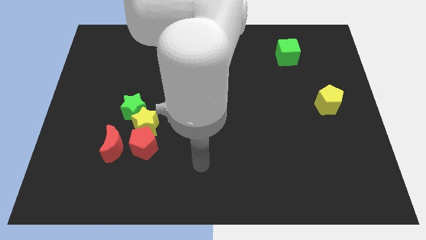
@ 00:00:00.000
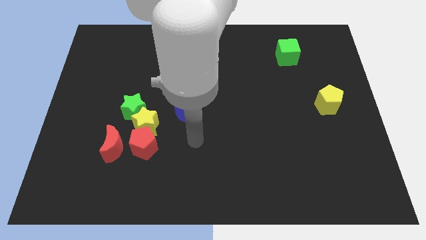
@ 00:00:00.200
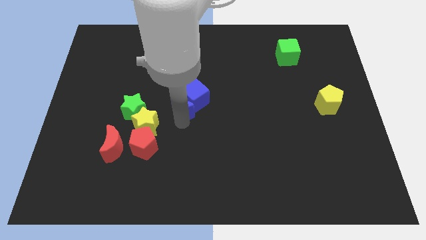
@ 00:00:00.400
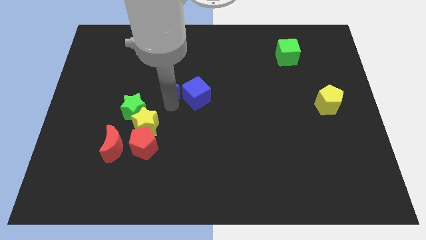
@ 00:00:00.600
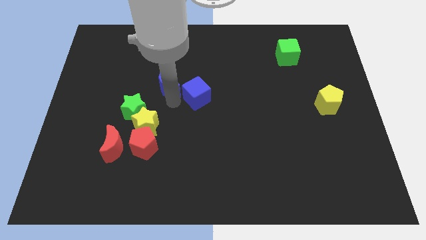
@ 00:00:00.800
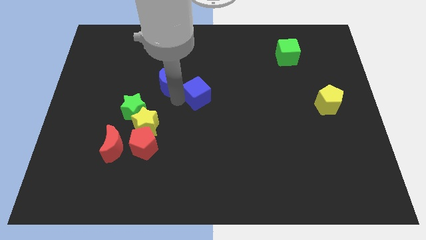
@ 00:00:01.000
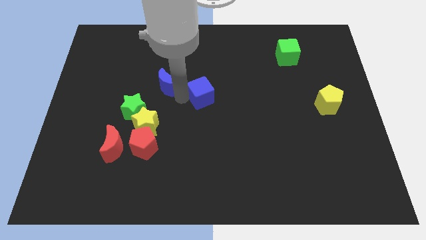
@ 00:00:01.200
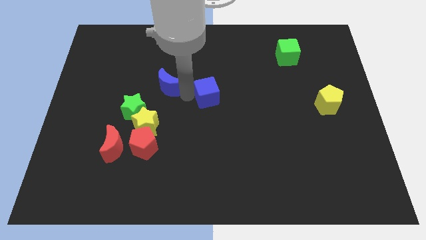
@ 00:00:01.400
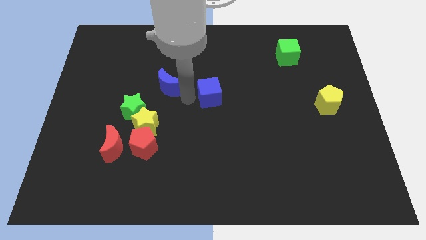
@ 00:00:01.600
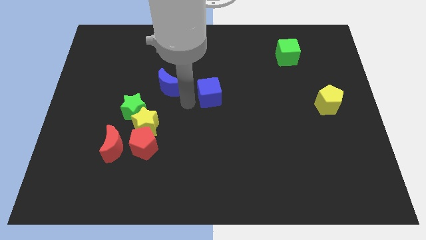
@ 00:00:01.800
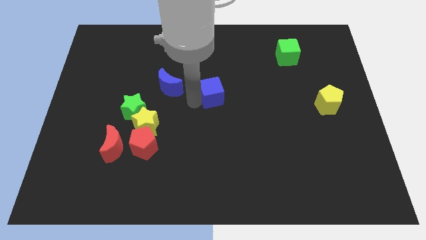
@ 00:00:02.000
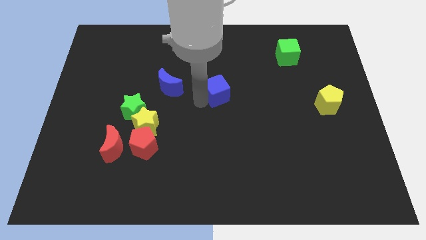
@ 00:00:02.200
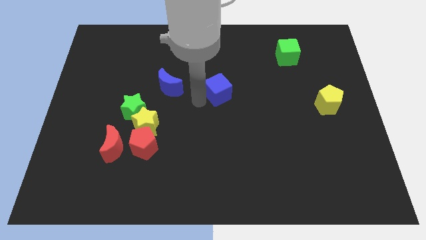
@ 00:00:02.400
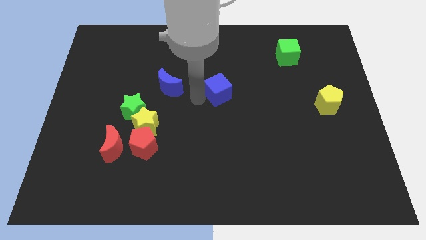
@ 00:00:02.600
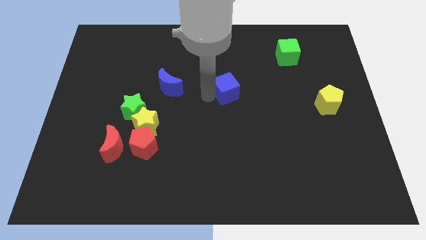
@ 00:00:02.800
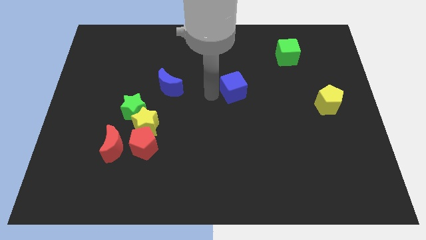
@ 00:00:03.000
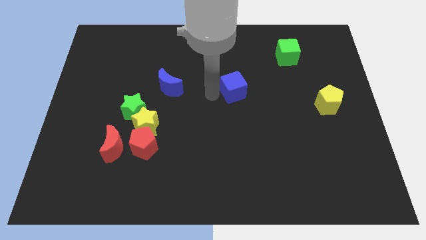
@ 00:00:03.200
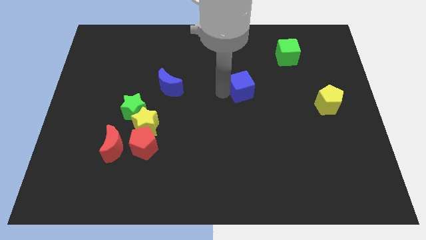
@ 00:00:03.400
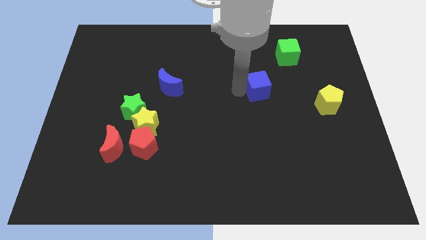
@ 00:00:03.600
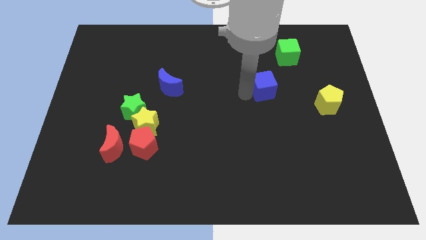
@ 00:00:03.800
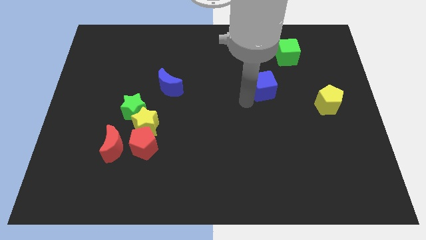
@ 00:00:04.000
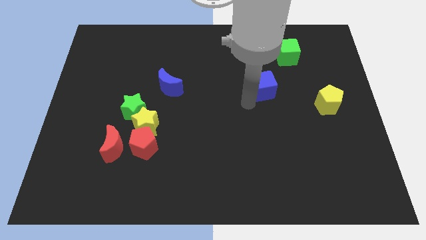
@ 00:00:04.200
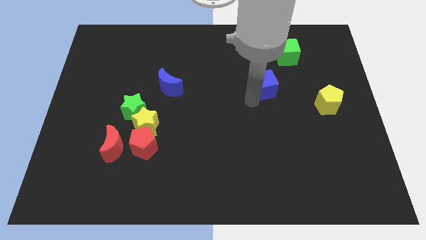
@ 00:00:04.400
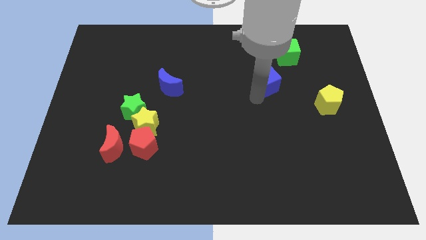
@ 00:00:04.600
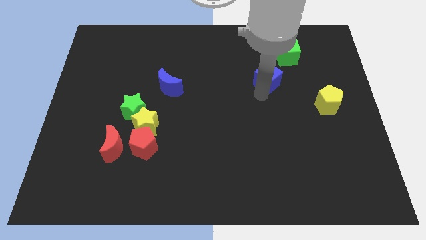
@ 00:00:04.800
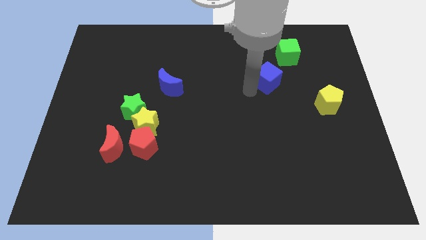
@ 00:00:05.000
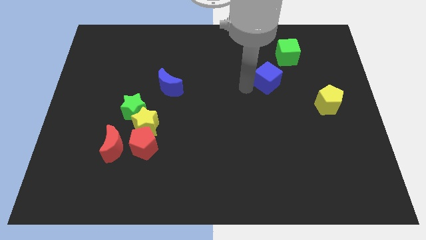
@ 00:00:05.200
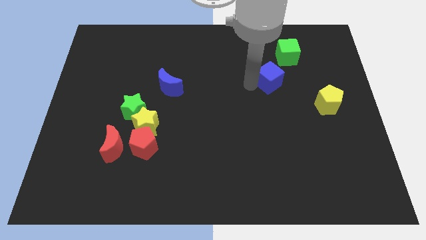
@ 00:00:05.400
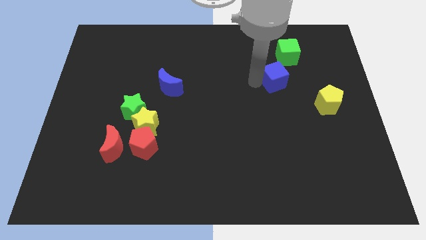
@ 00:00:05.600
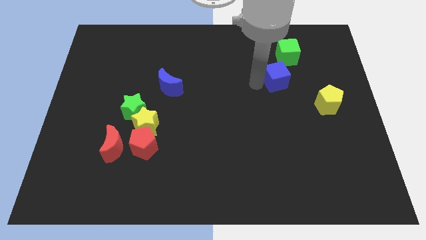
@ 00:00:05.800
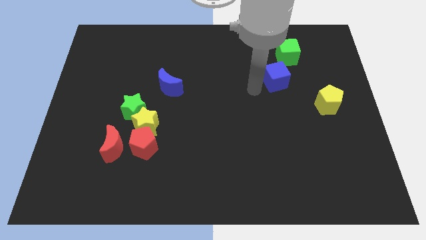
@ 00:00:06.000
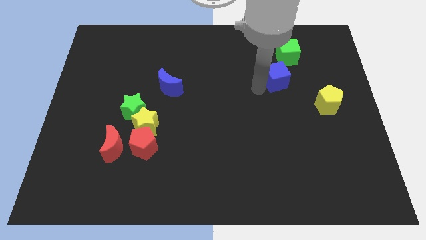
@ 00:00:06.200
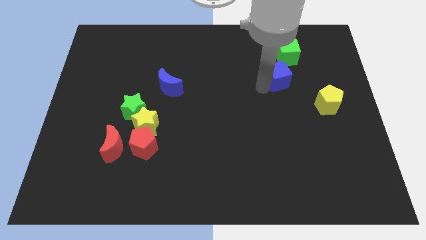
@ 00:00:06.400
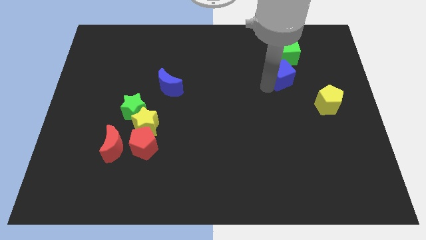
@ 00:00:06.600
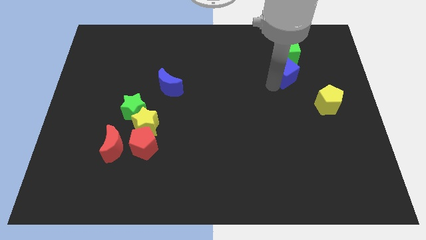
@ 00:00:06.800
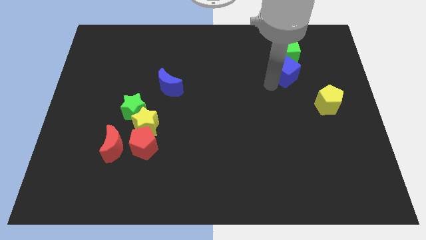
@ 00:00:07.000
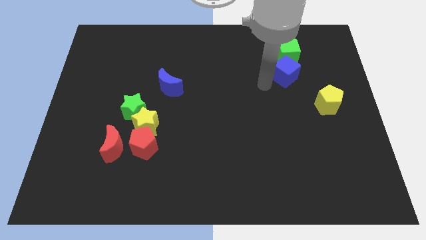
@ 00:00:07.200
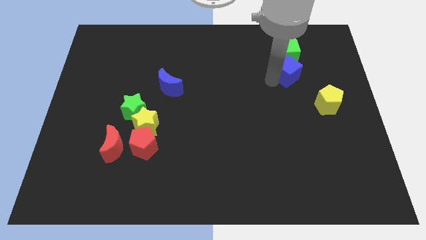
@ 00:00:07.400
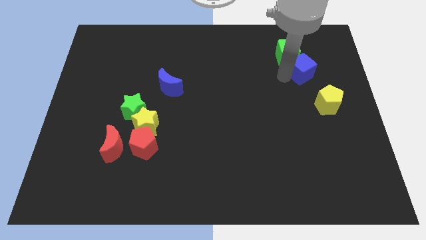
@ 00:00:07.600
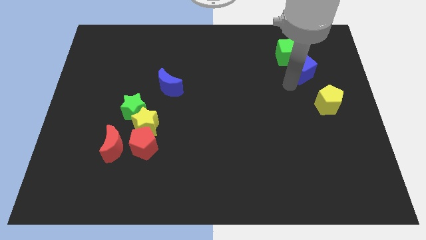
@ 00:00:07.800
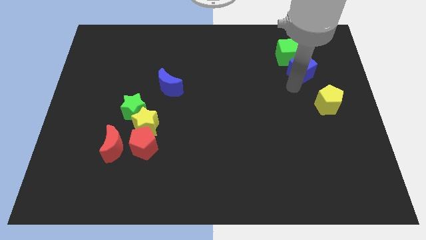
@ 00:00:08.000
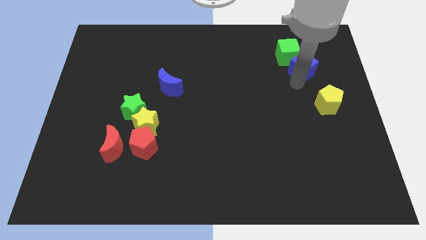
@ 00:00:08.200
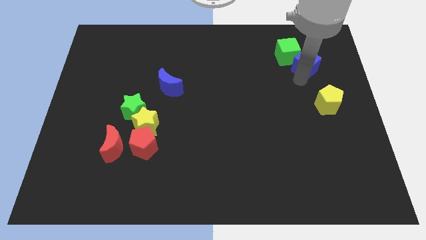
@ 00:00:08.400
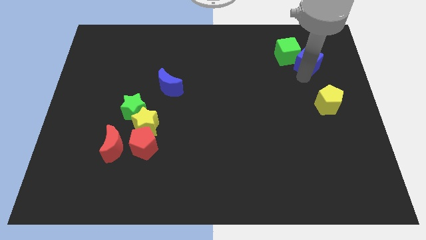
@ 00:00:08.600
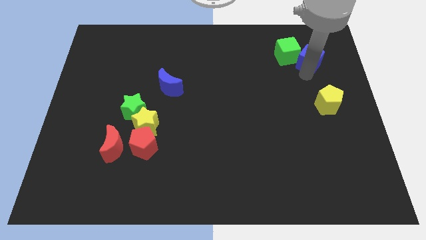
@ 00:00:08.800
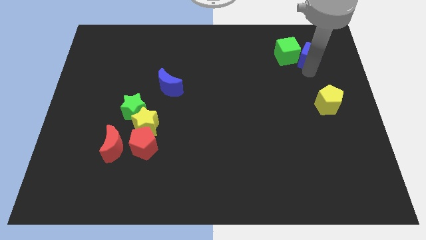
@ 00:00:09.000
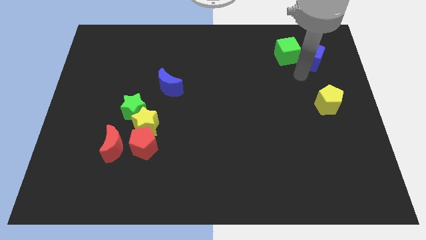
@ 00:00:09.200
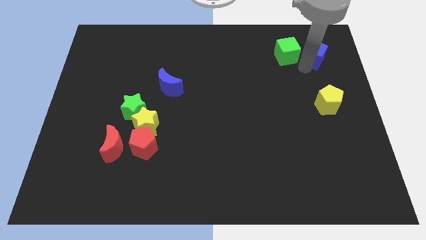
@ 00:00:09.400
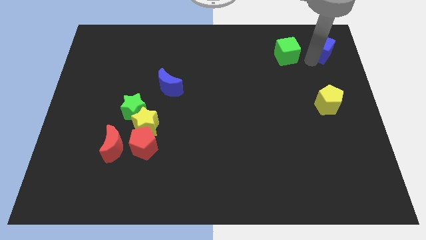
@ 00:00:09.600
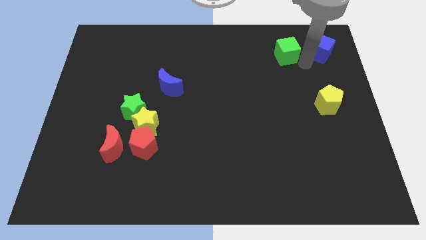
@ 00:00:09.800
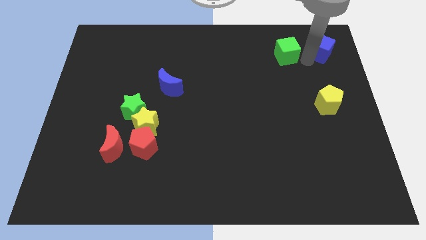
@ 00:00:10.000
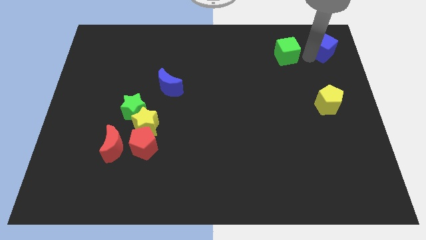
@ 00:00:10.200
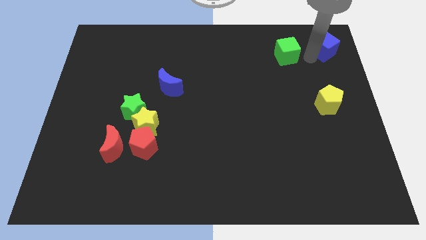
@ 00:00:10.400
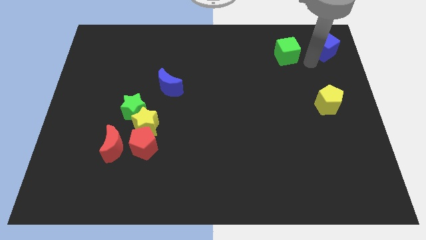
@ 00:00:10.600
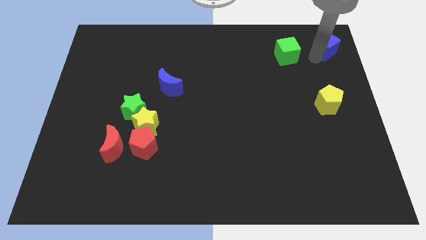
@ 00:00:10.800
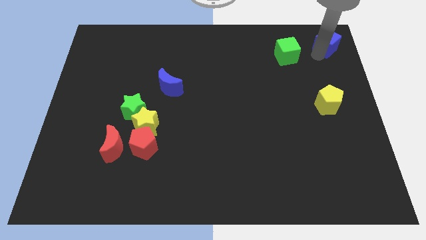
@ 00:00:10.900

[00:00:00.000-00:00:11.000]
put the blue cube to the top right of the board

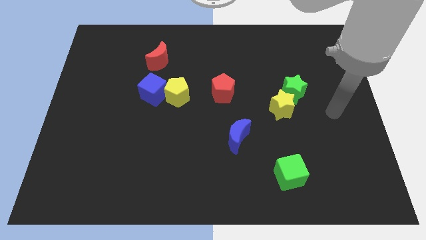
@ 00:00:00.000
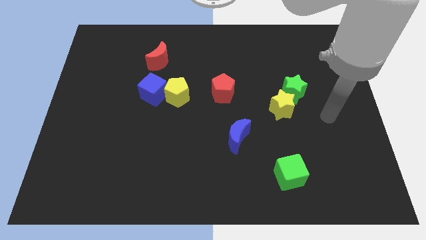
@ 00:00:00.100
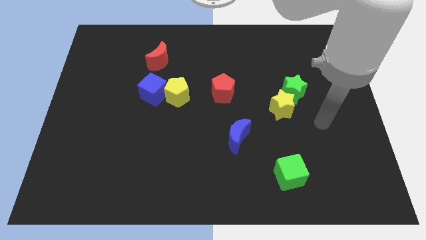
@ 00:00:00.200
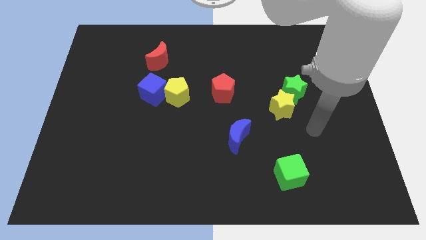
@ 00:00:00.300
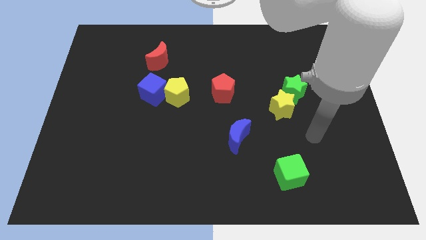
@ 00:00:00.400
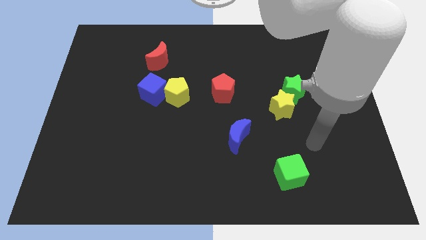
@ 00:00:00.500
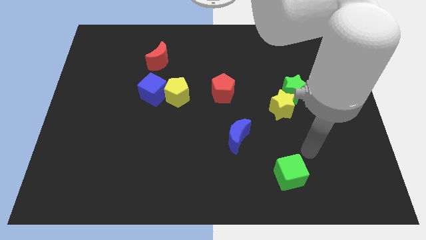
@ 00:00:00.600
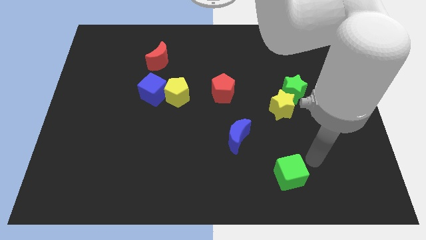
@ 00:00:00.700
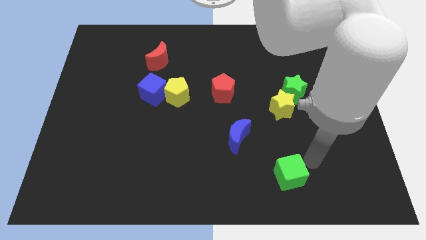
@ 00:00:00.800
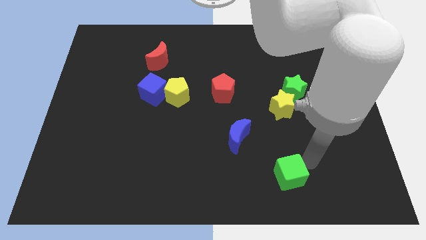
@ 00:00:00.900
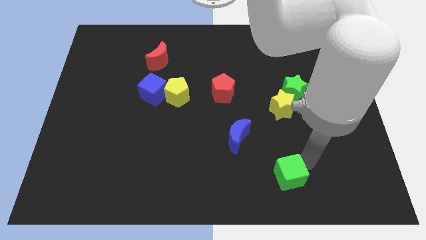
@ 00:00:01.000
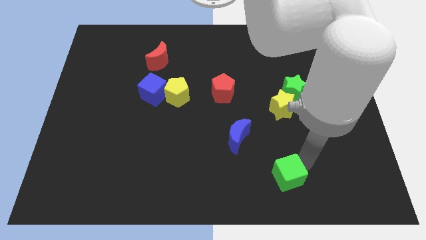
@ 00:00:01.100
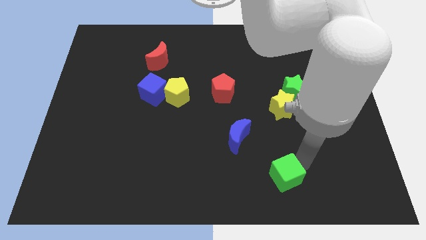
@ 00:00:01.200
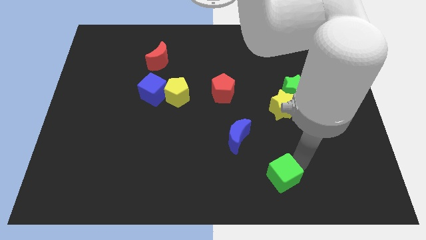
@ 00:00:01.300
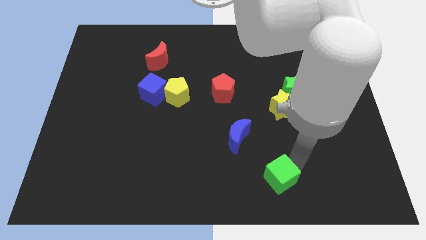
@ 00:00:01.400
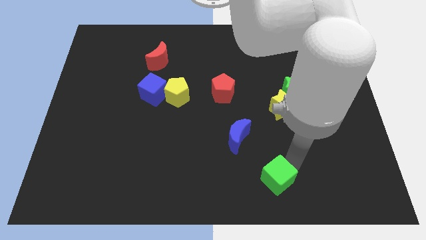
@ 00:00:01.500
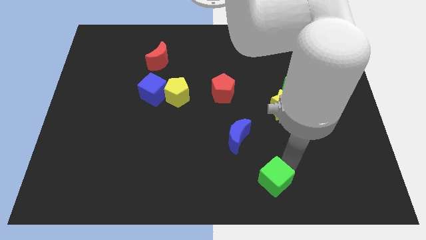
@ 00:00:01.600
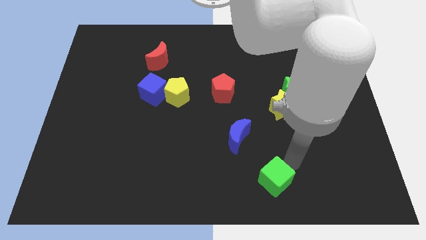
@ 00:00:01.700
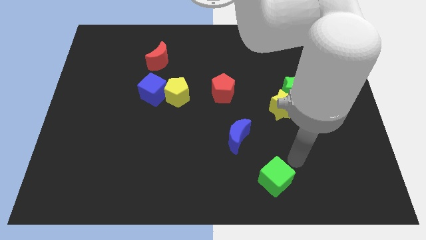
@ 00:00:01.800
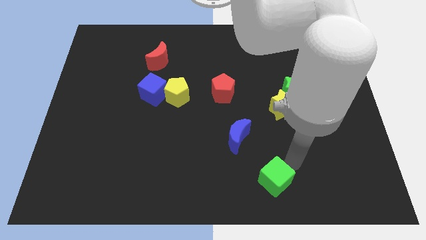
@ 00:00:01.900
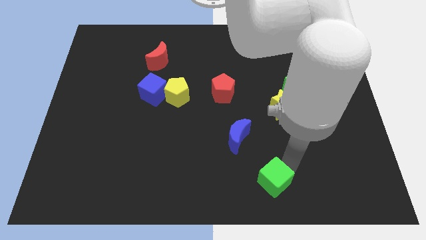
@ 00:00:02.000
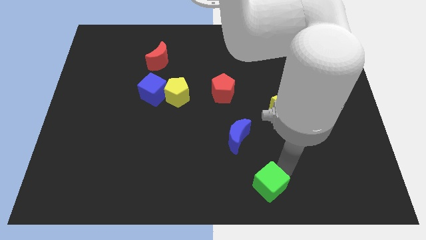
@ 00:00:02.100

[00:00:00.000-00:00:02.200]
slide the green cube to the bottom
